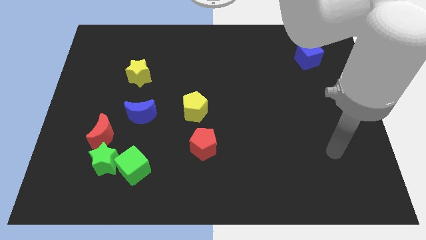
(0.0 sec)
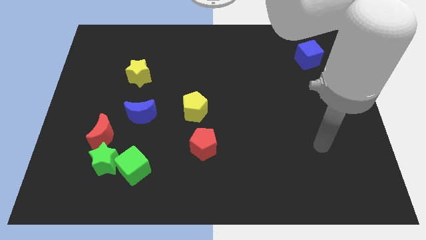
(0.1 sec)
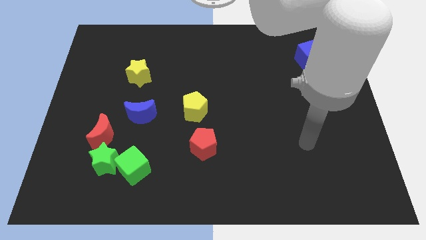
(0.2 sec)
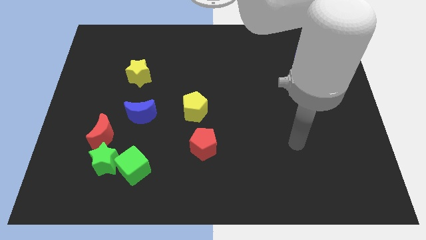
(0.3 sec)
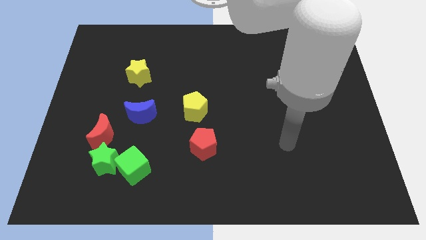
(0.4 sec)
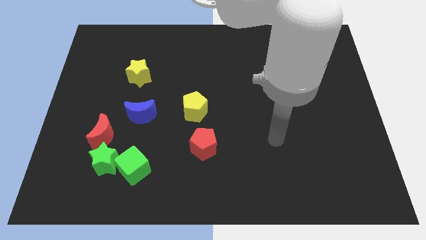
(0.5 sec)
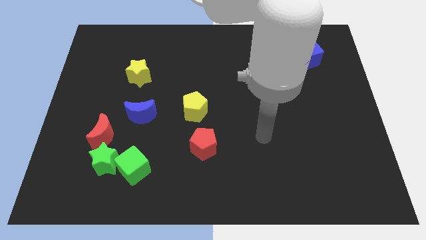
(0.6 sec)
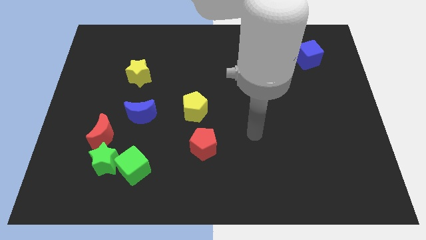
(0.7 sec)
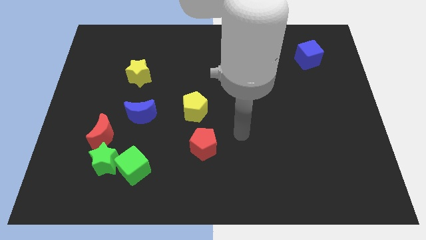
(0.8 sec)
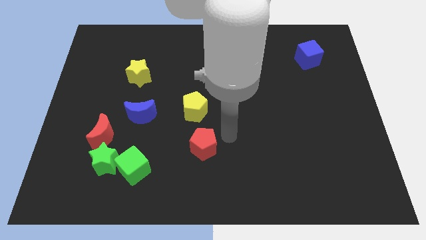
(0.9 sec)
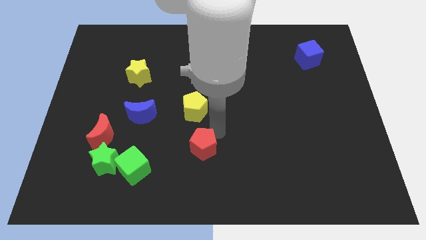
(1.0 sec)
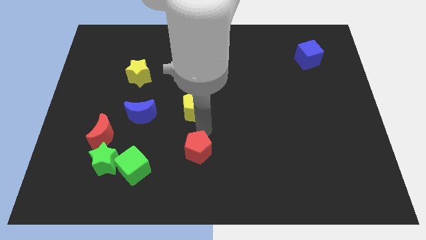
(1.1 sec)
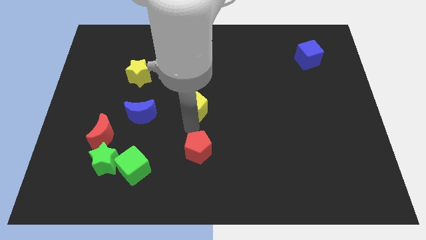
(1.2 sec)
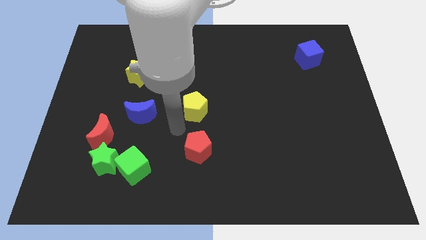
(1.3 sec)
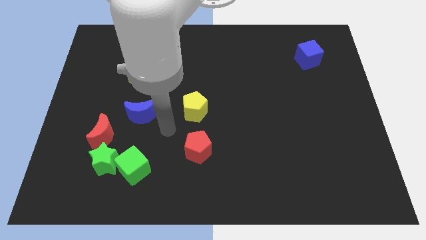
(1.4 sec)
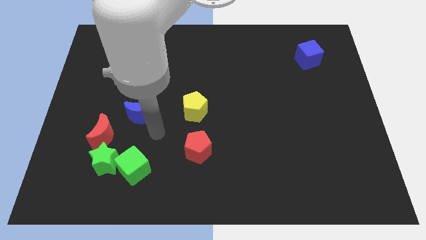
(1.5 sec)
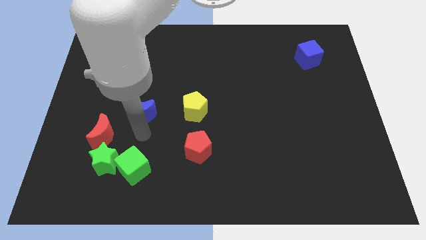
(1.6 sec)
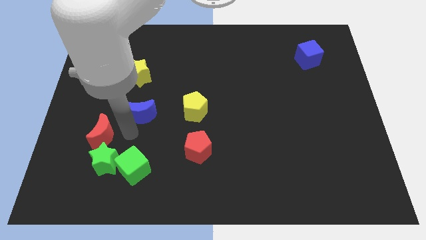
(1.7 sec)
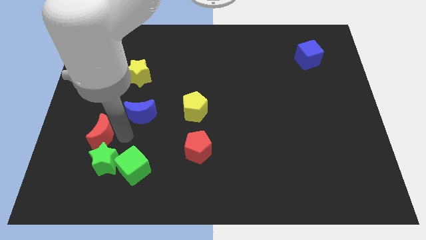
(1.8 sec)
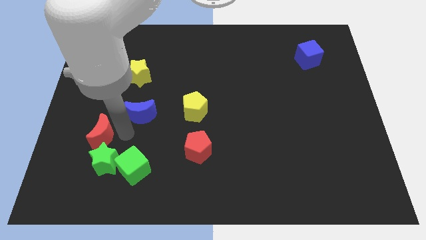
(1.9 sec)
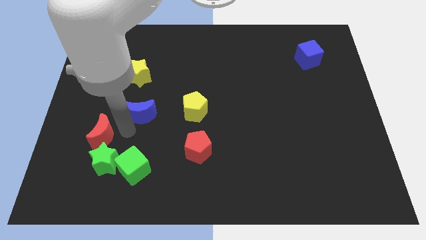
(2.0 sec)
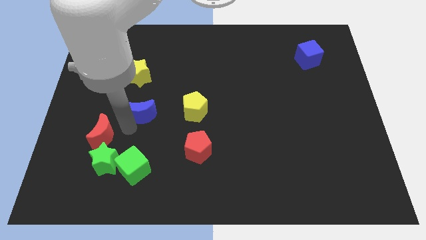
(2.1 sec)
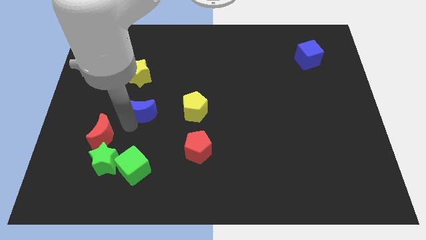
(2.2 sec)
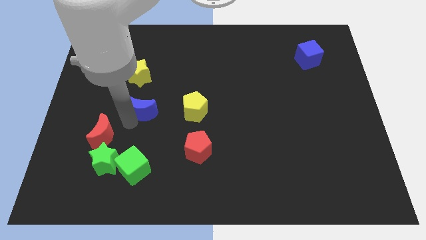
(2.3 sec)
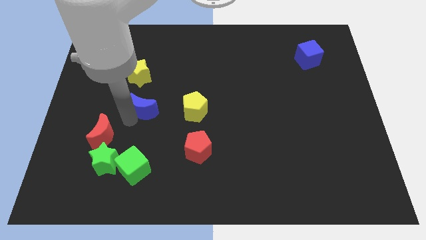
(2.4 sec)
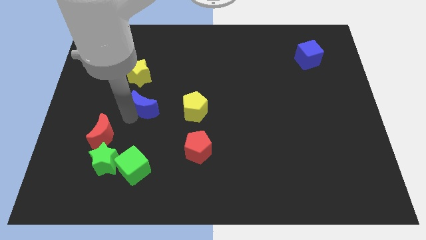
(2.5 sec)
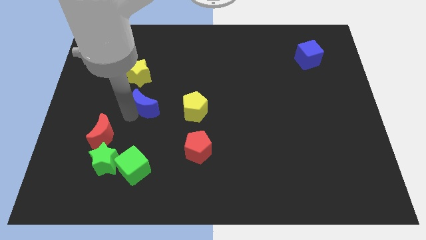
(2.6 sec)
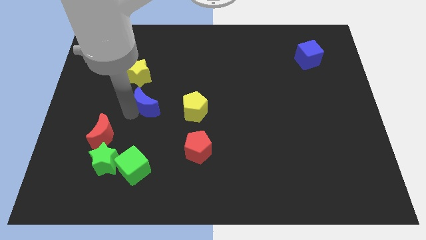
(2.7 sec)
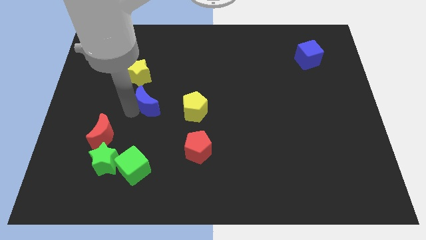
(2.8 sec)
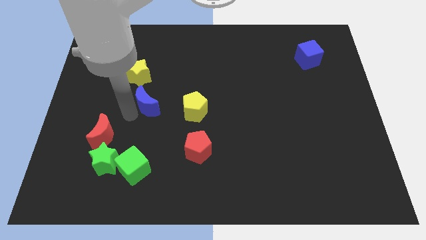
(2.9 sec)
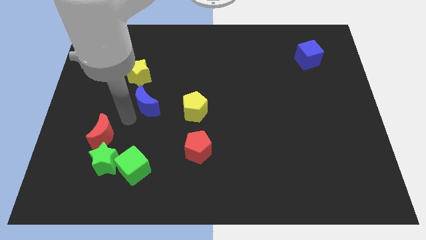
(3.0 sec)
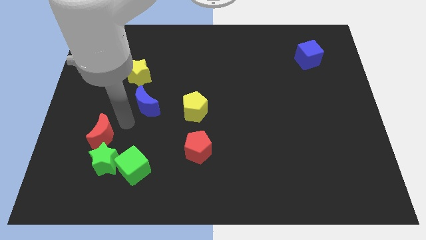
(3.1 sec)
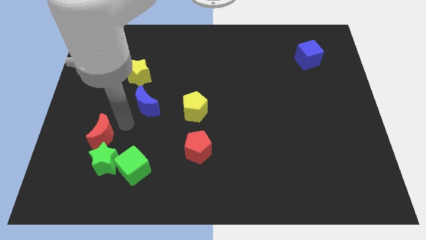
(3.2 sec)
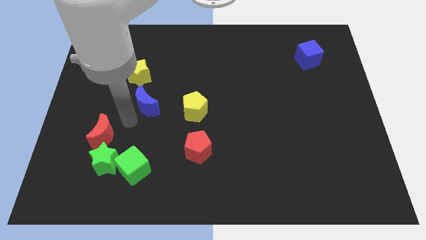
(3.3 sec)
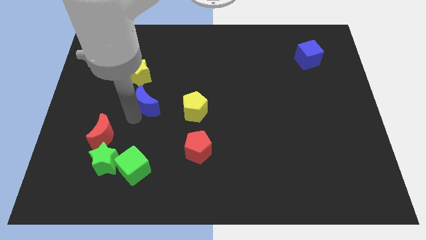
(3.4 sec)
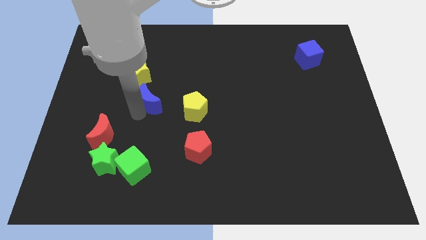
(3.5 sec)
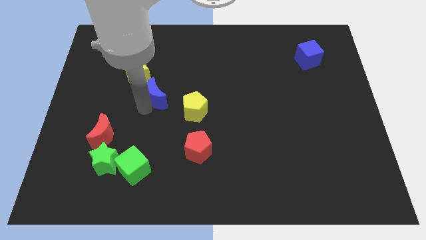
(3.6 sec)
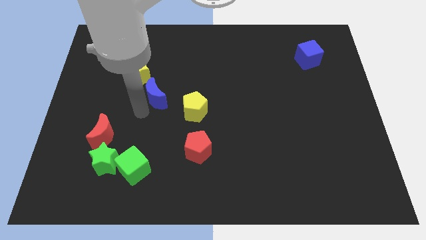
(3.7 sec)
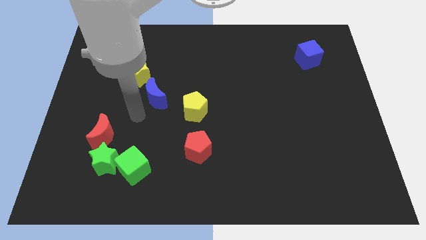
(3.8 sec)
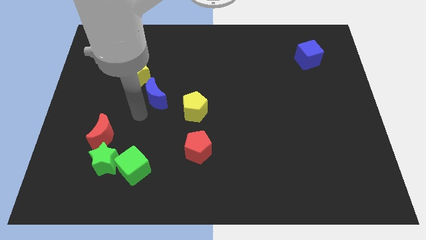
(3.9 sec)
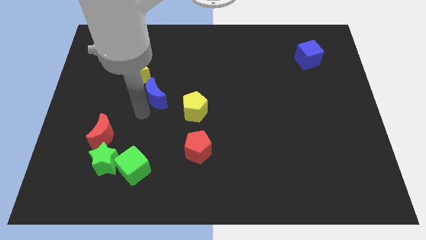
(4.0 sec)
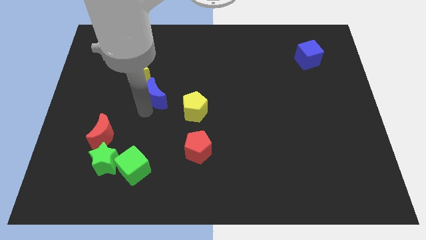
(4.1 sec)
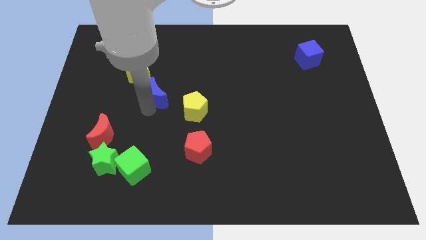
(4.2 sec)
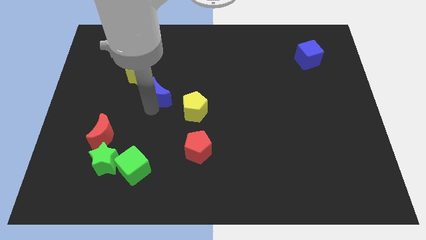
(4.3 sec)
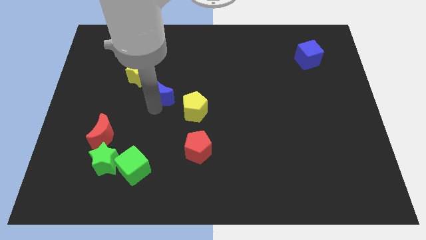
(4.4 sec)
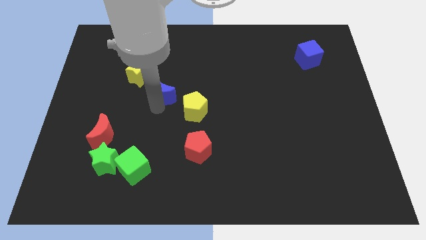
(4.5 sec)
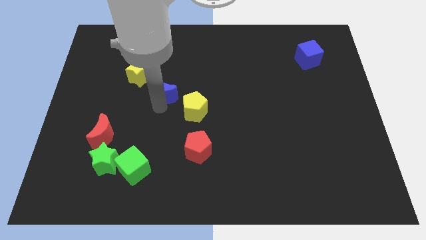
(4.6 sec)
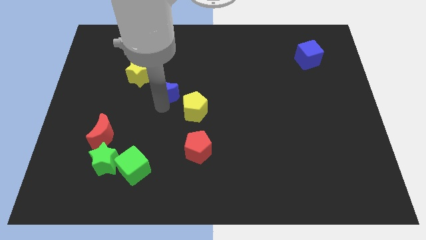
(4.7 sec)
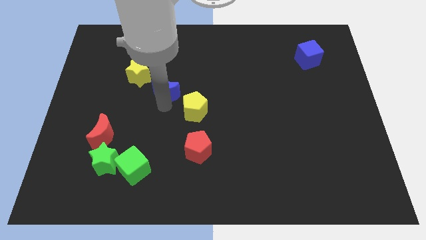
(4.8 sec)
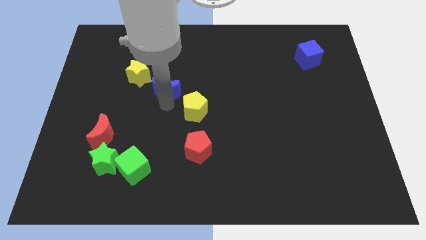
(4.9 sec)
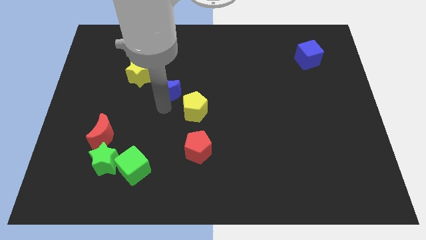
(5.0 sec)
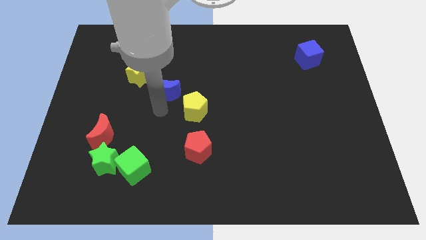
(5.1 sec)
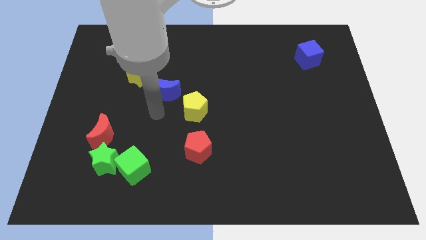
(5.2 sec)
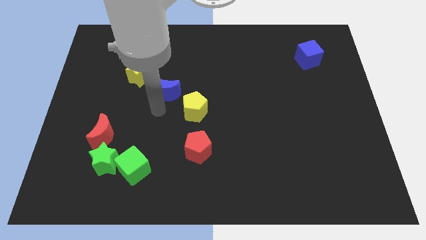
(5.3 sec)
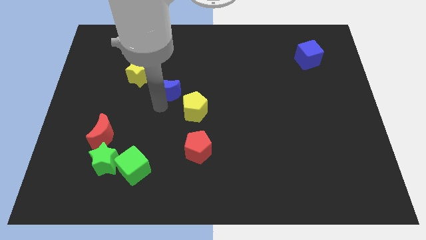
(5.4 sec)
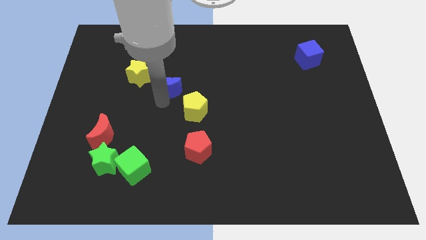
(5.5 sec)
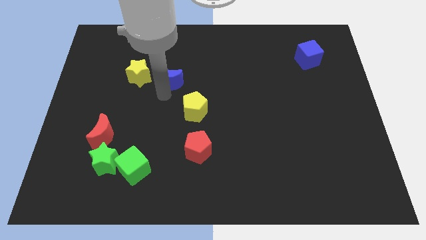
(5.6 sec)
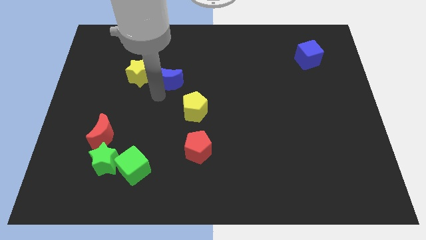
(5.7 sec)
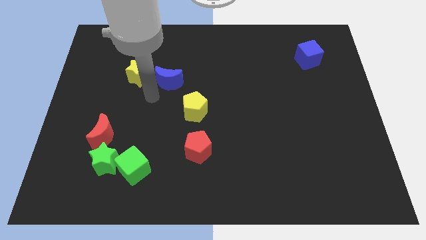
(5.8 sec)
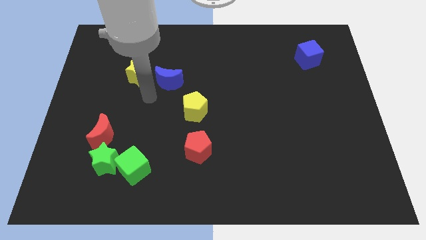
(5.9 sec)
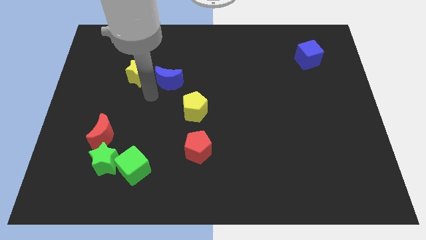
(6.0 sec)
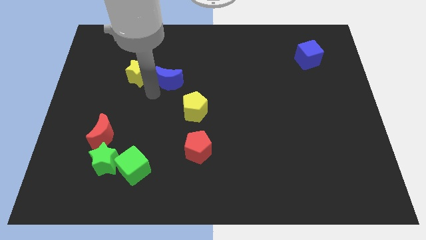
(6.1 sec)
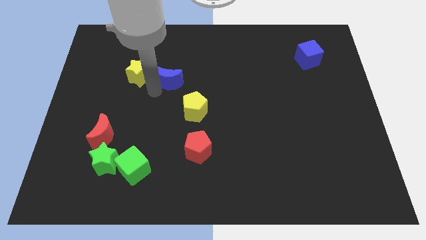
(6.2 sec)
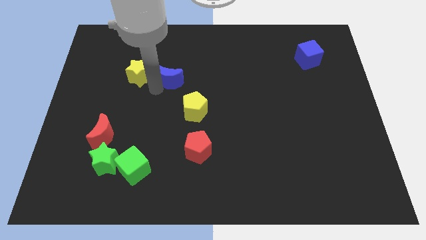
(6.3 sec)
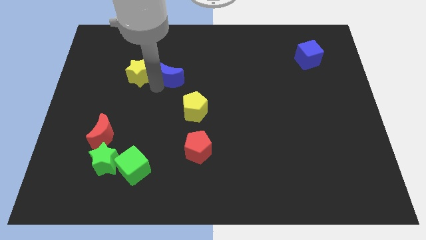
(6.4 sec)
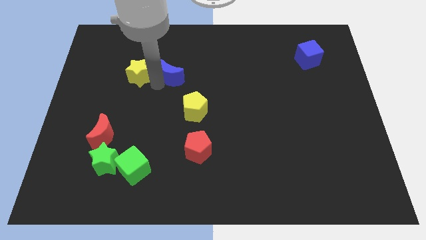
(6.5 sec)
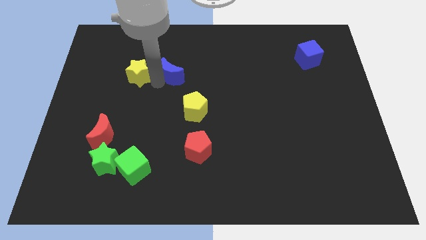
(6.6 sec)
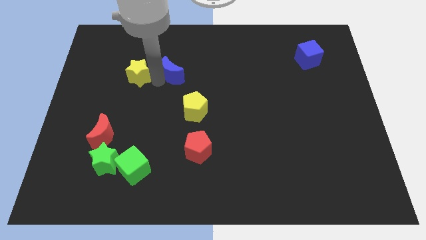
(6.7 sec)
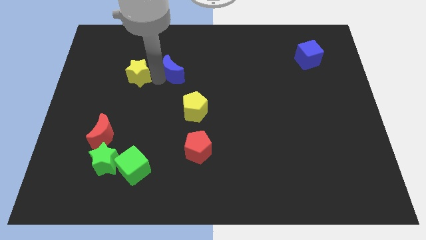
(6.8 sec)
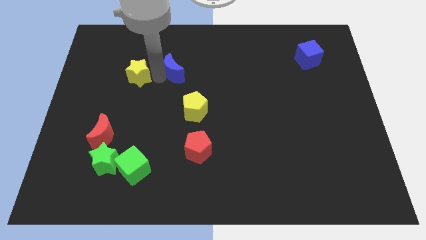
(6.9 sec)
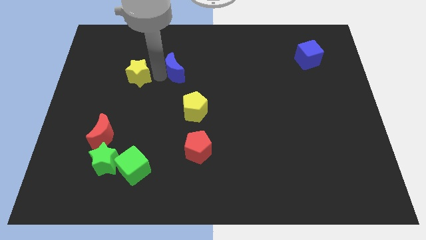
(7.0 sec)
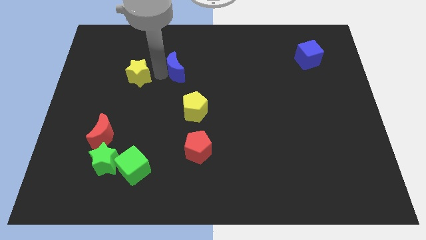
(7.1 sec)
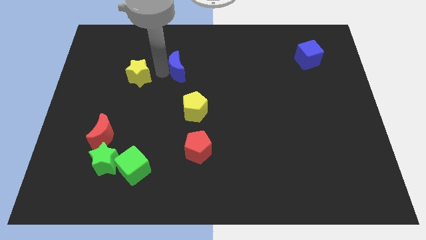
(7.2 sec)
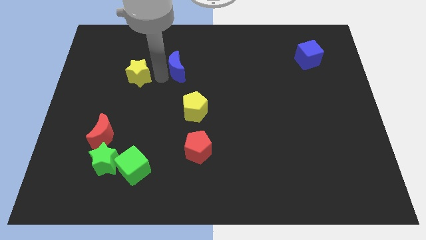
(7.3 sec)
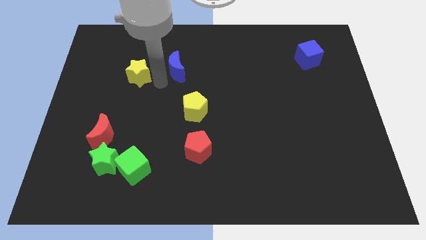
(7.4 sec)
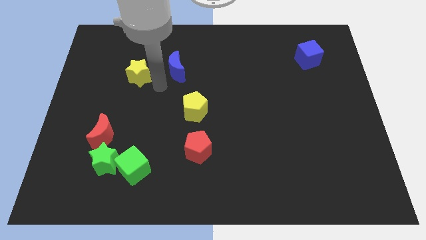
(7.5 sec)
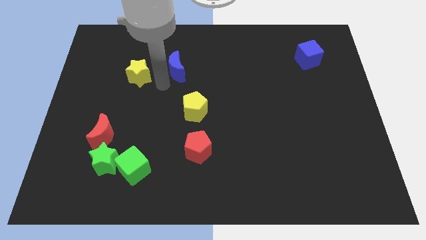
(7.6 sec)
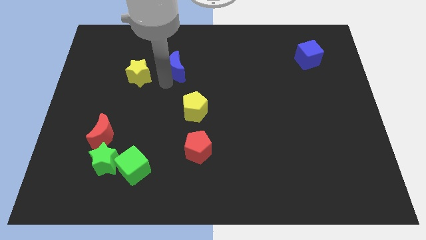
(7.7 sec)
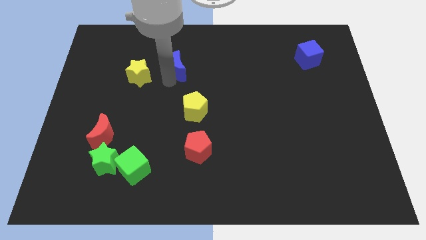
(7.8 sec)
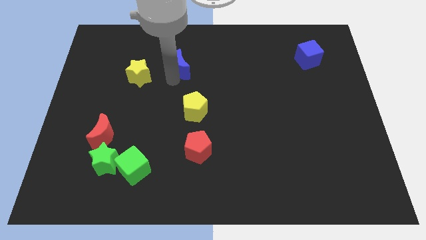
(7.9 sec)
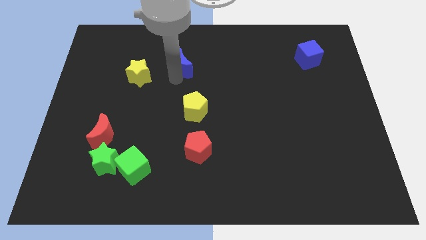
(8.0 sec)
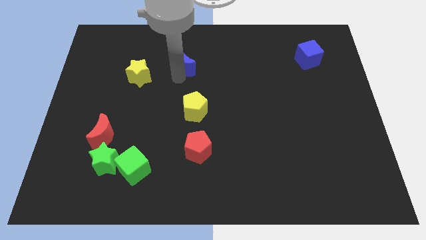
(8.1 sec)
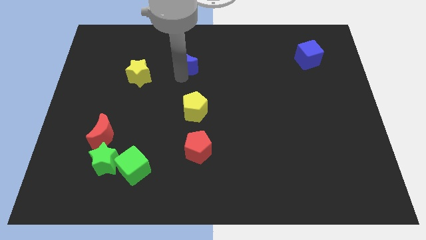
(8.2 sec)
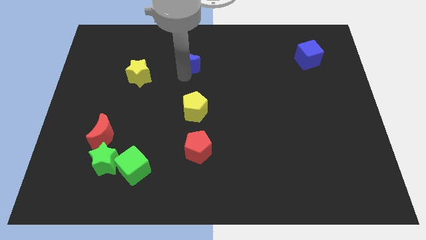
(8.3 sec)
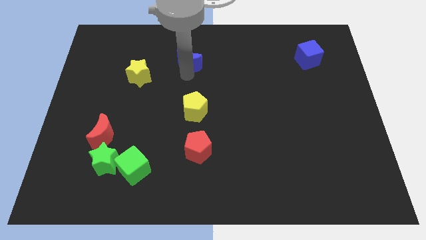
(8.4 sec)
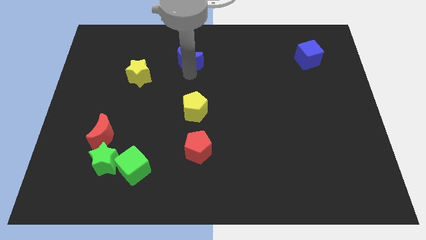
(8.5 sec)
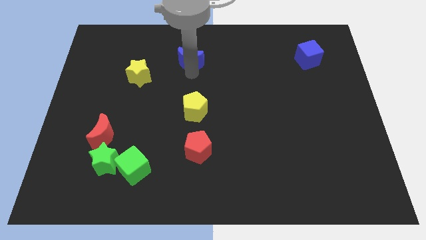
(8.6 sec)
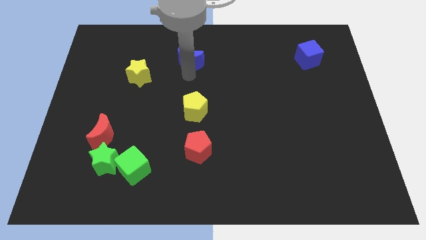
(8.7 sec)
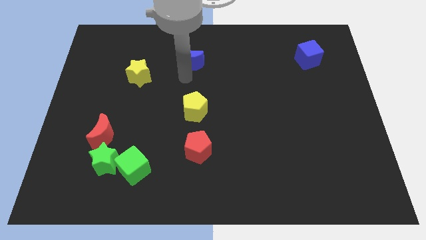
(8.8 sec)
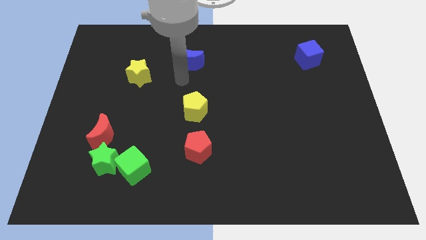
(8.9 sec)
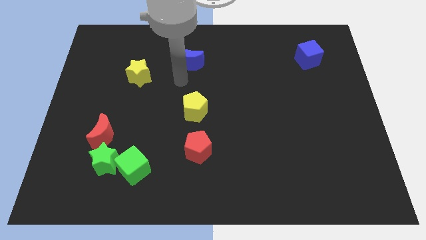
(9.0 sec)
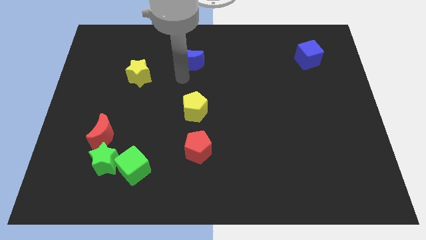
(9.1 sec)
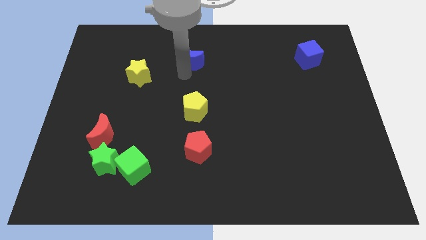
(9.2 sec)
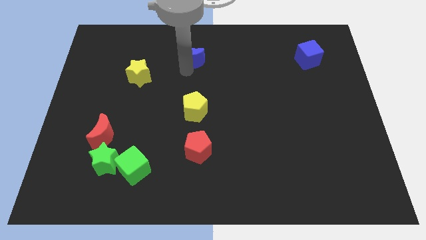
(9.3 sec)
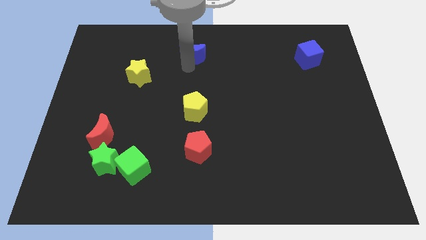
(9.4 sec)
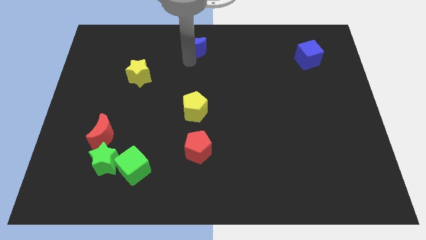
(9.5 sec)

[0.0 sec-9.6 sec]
slide the blue moon to the towards your base
